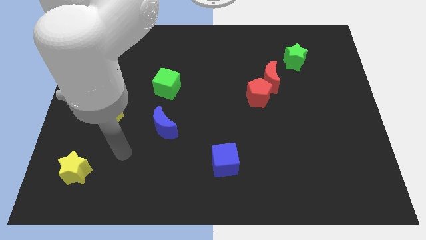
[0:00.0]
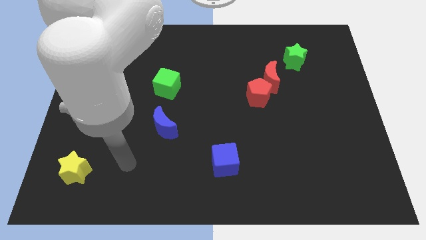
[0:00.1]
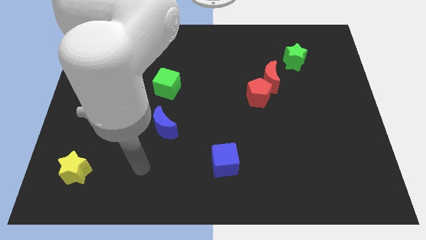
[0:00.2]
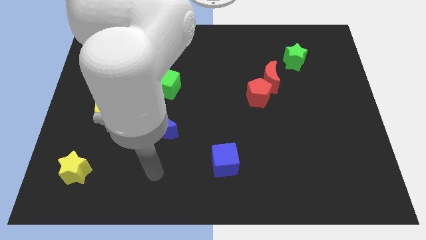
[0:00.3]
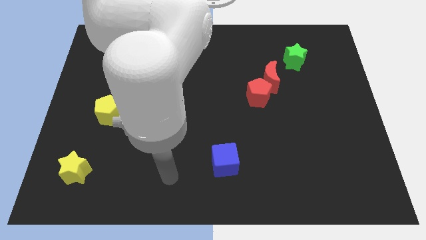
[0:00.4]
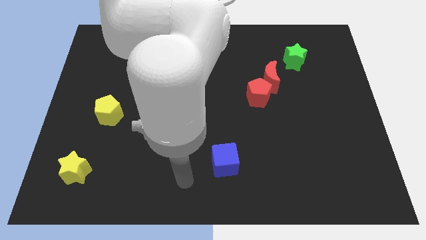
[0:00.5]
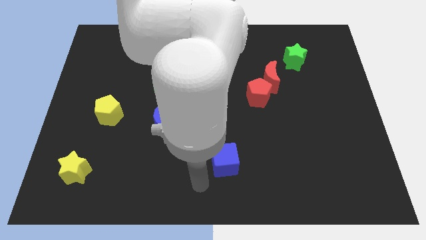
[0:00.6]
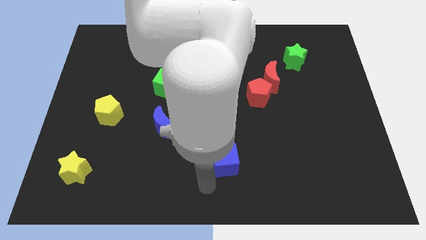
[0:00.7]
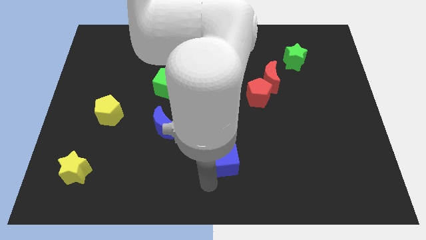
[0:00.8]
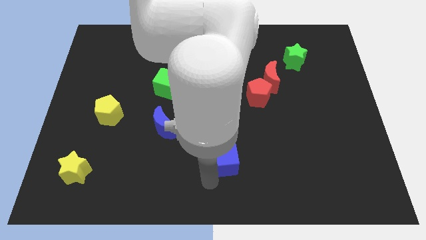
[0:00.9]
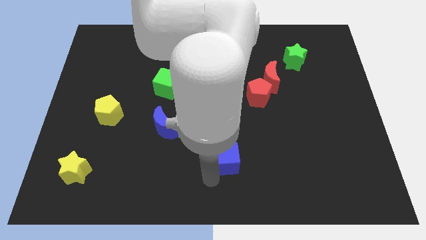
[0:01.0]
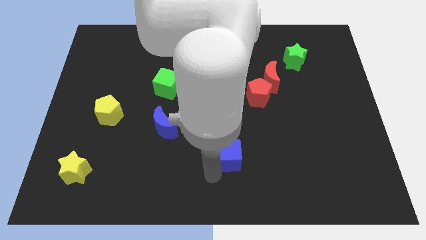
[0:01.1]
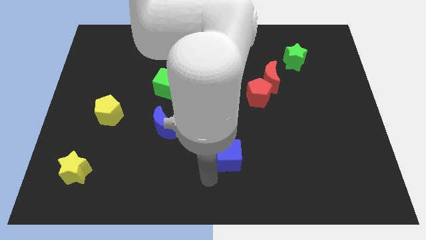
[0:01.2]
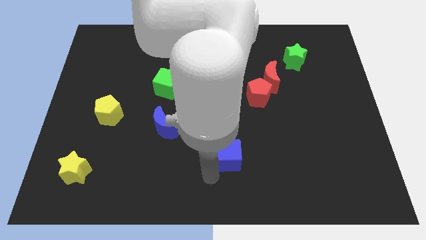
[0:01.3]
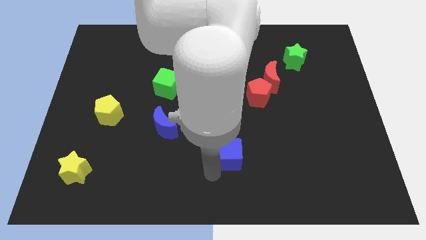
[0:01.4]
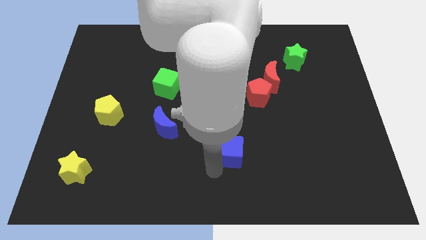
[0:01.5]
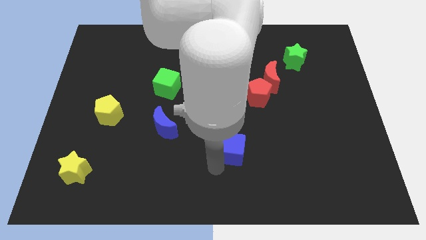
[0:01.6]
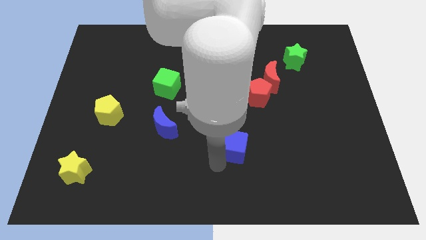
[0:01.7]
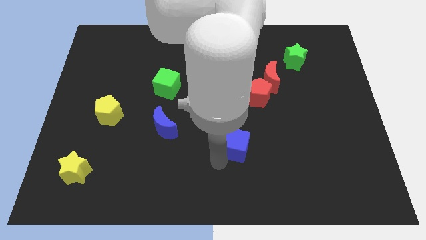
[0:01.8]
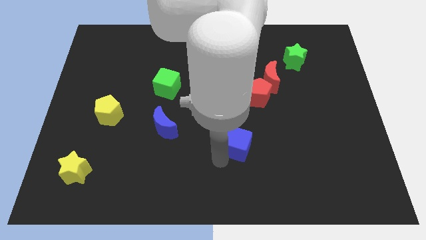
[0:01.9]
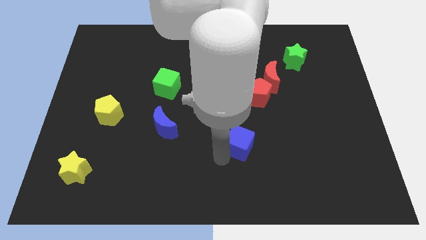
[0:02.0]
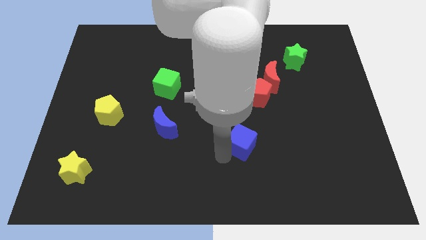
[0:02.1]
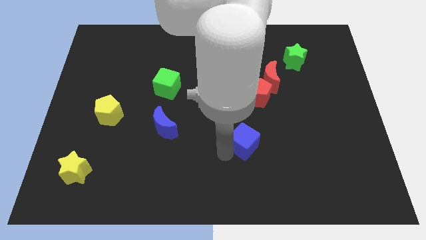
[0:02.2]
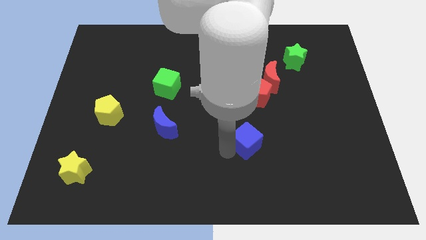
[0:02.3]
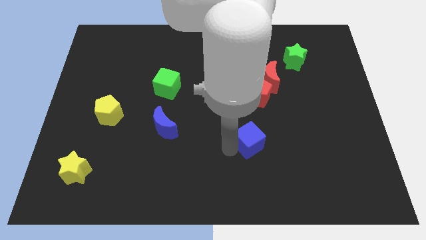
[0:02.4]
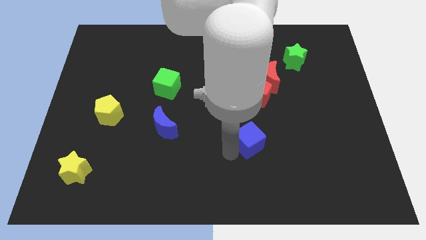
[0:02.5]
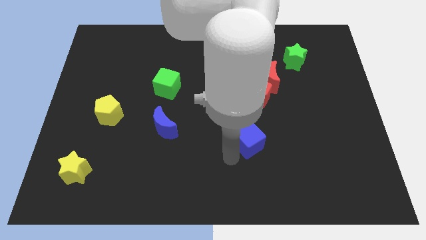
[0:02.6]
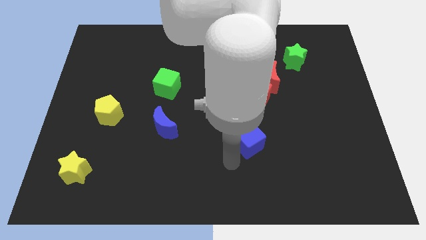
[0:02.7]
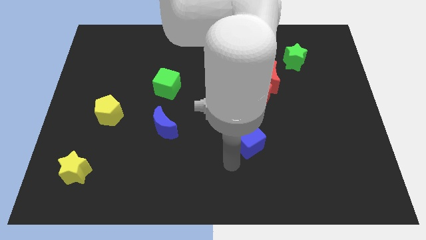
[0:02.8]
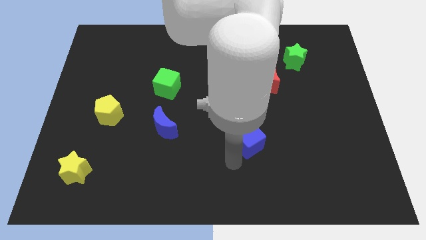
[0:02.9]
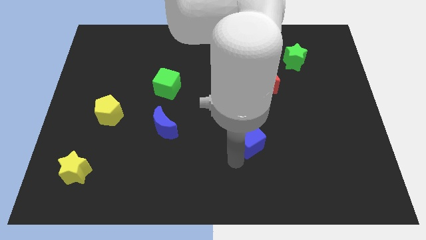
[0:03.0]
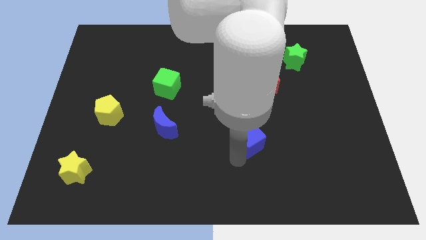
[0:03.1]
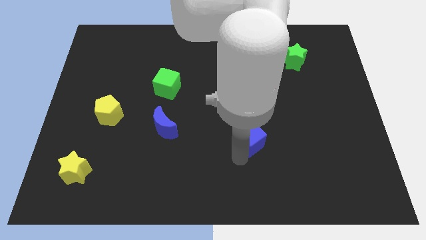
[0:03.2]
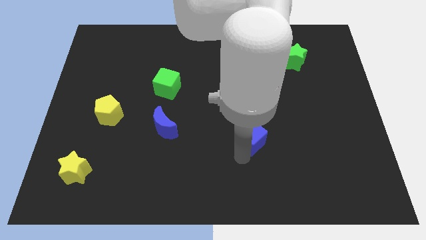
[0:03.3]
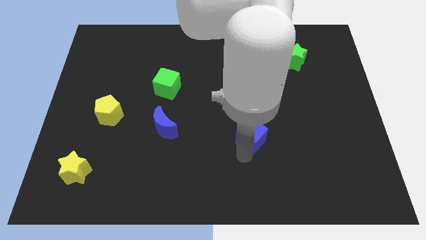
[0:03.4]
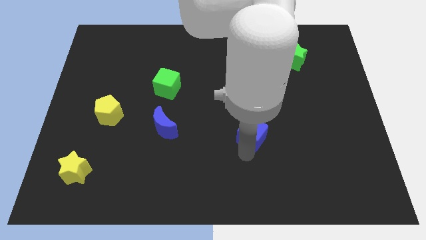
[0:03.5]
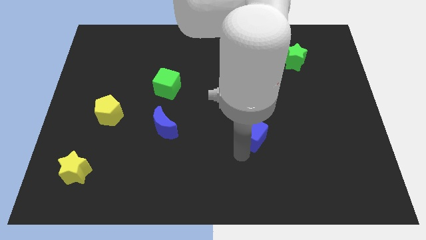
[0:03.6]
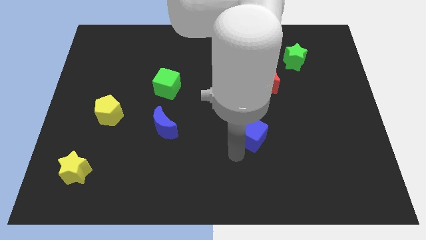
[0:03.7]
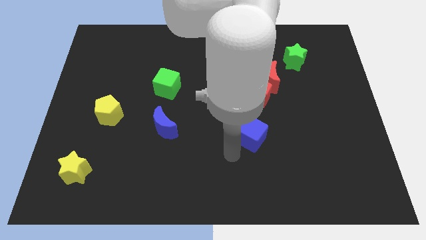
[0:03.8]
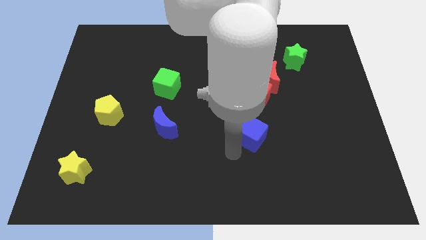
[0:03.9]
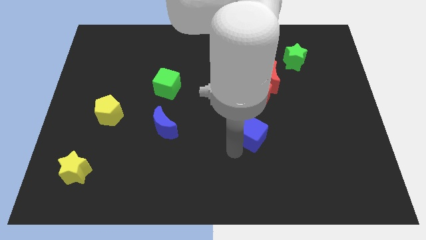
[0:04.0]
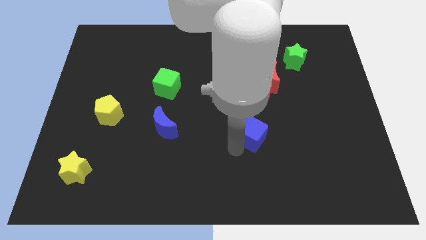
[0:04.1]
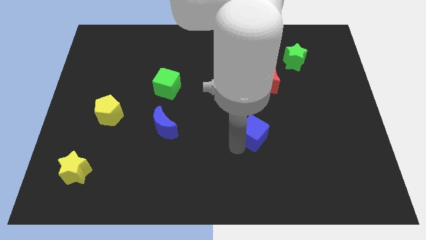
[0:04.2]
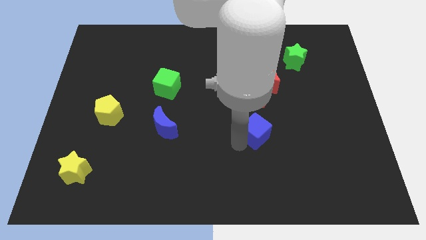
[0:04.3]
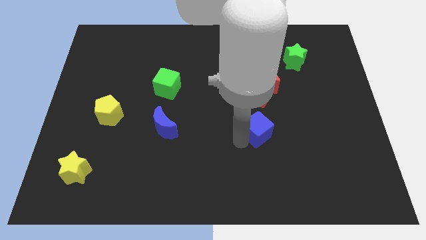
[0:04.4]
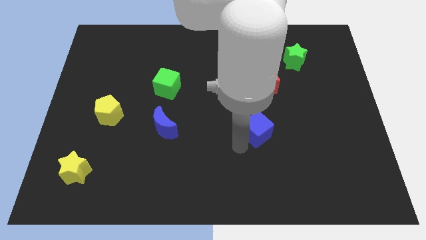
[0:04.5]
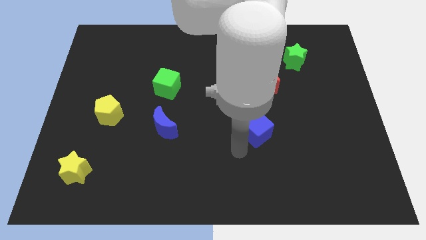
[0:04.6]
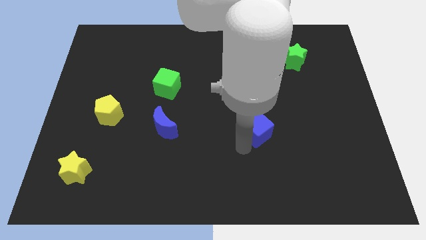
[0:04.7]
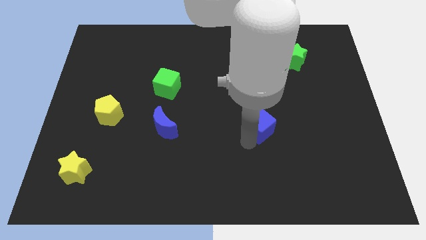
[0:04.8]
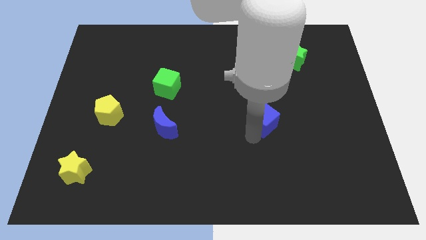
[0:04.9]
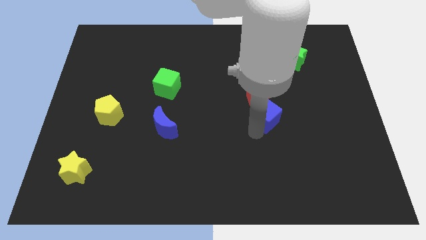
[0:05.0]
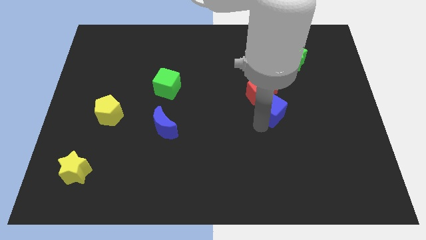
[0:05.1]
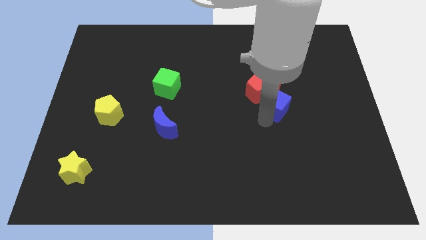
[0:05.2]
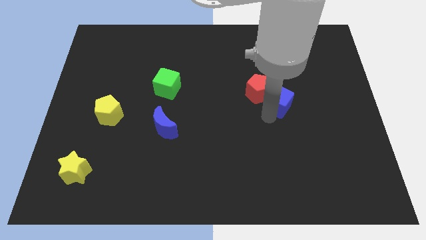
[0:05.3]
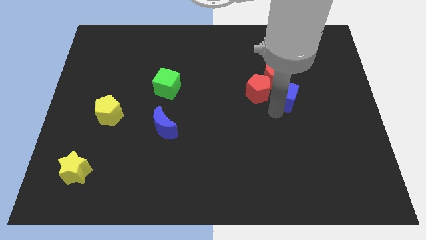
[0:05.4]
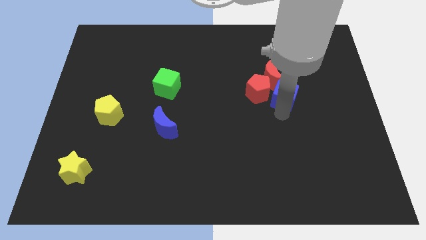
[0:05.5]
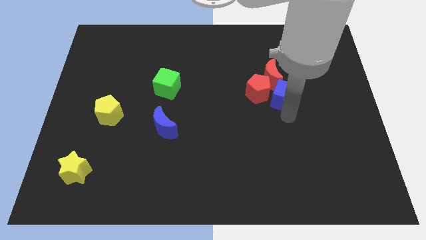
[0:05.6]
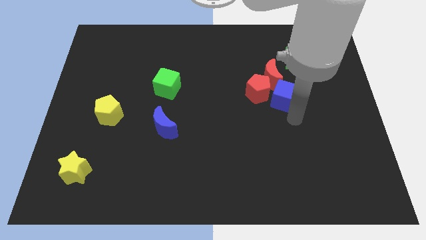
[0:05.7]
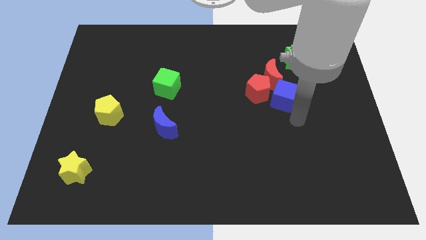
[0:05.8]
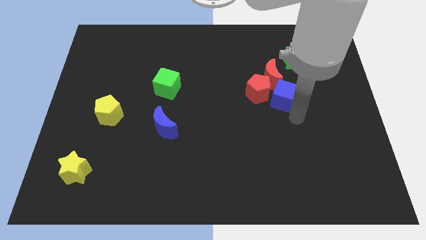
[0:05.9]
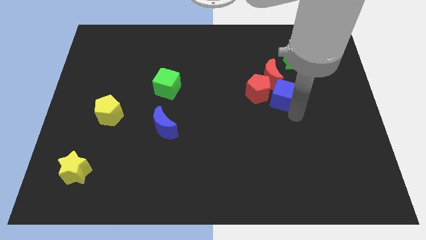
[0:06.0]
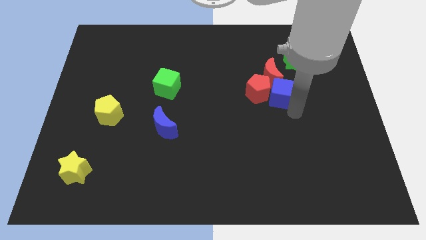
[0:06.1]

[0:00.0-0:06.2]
move the blue cube next to the red moon

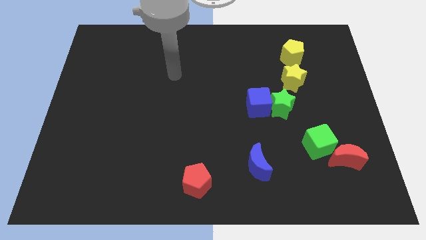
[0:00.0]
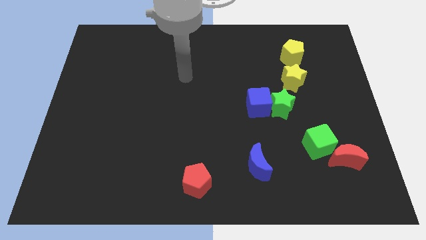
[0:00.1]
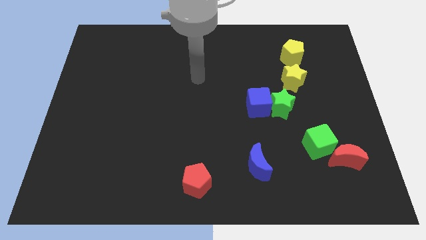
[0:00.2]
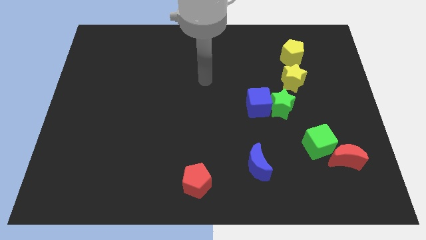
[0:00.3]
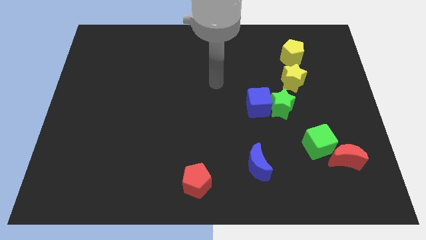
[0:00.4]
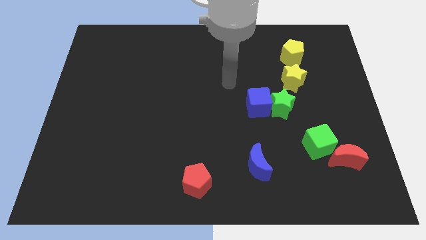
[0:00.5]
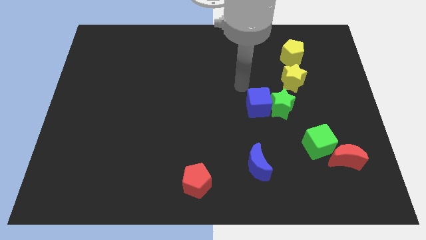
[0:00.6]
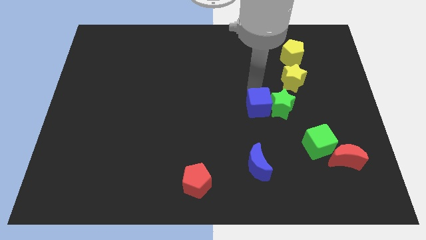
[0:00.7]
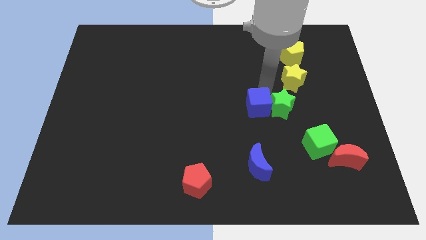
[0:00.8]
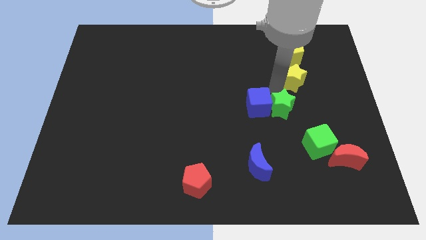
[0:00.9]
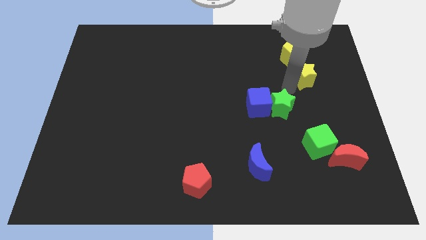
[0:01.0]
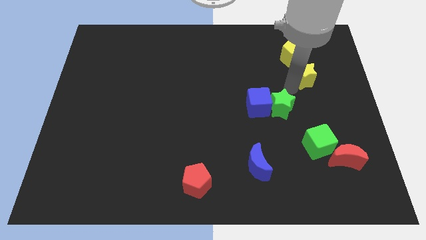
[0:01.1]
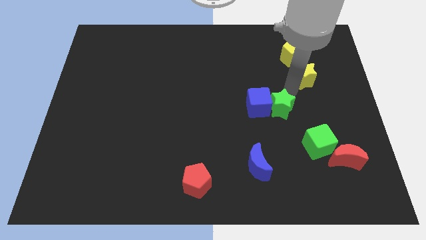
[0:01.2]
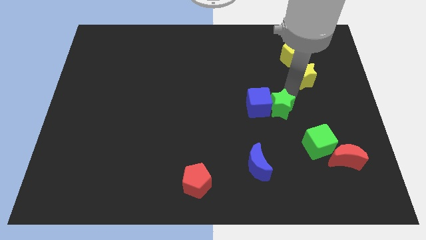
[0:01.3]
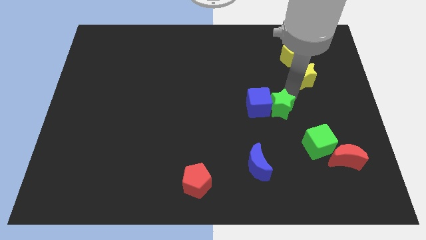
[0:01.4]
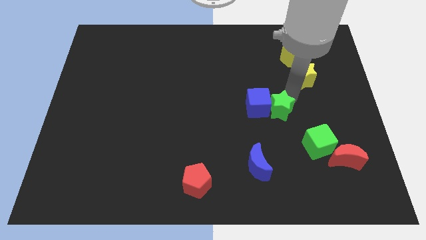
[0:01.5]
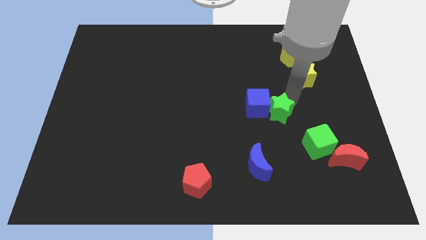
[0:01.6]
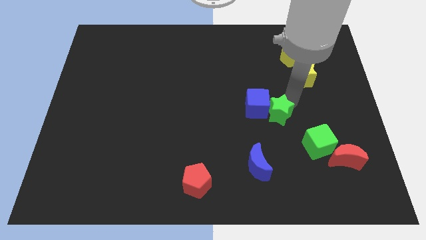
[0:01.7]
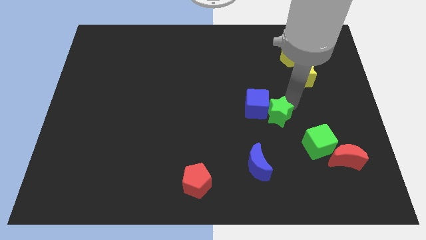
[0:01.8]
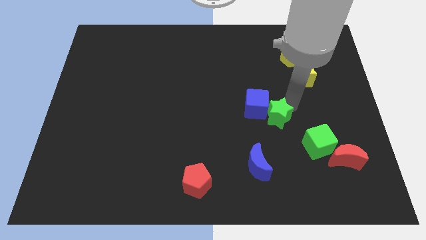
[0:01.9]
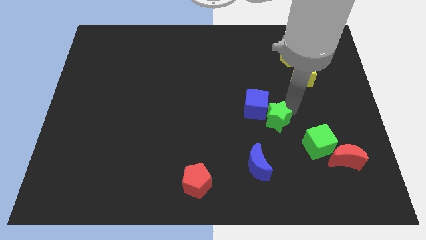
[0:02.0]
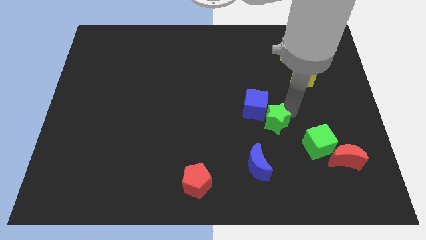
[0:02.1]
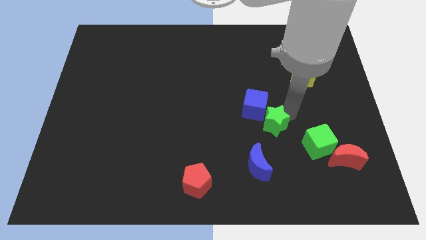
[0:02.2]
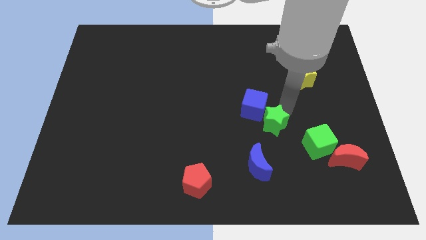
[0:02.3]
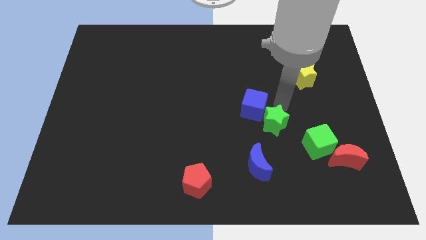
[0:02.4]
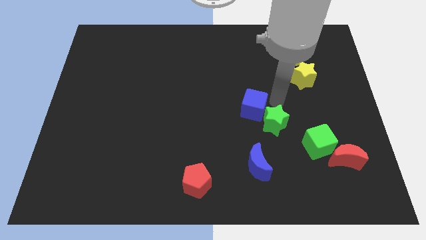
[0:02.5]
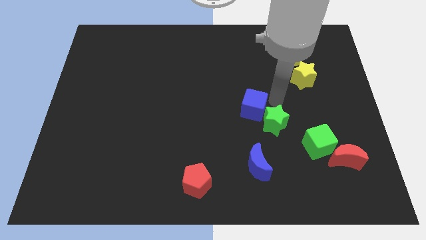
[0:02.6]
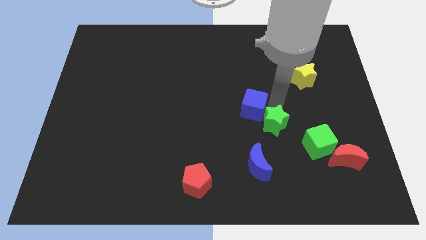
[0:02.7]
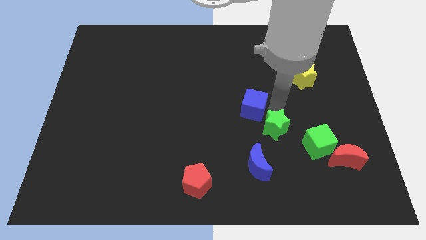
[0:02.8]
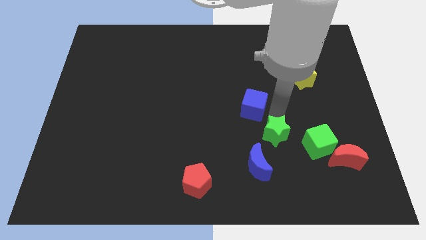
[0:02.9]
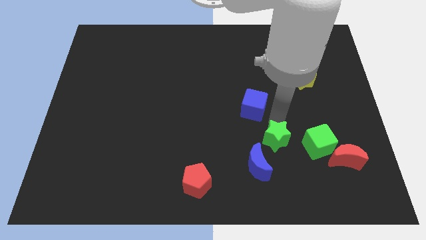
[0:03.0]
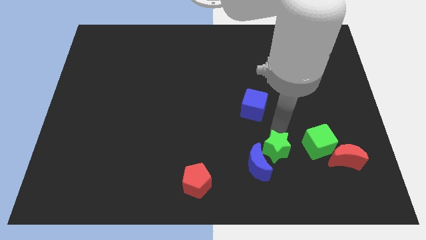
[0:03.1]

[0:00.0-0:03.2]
push the green star towards the blue moon
